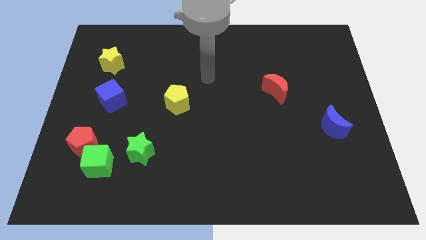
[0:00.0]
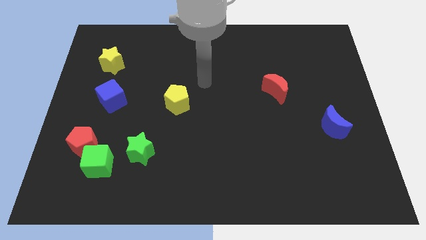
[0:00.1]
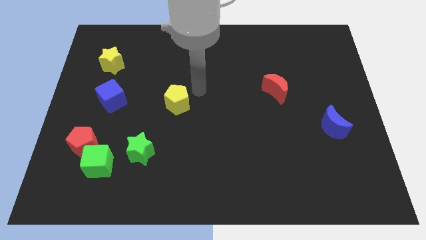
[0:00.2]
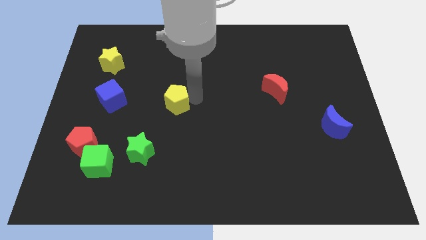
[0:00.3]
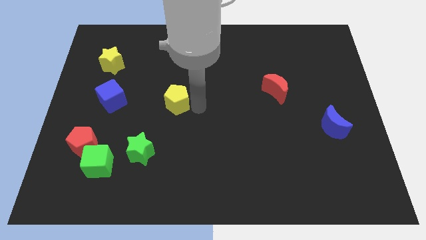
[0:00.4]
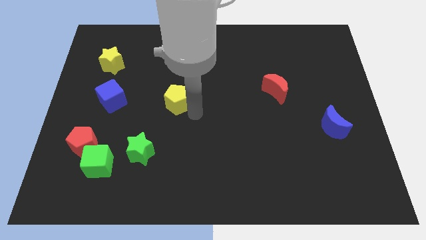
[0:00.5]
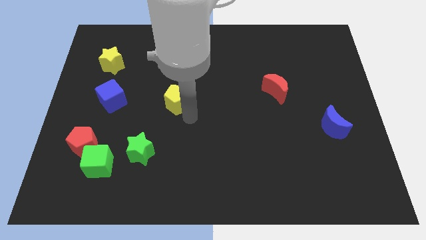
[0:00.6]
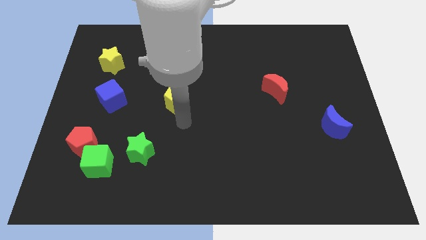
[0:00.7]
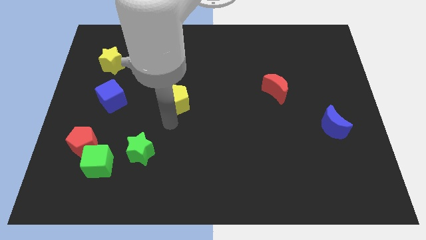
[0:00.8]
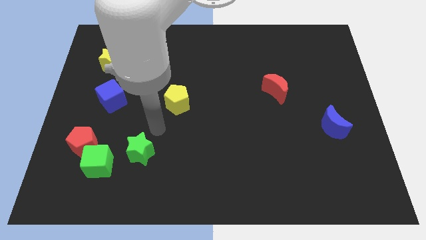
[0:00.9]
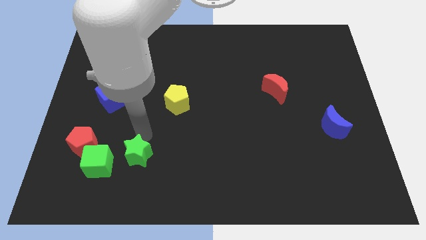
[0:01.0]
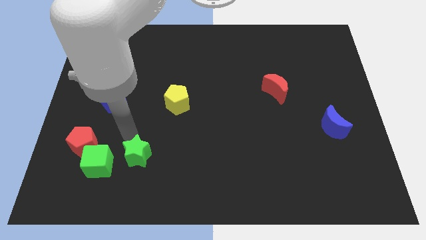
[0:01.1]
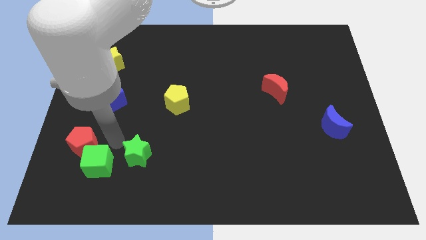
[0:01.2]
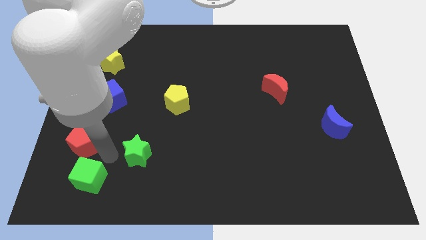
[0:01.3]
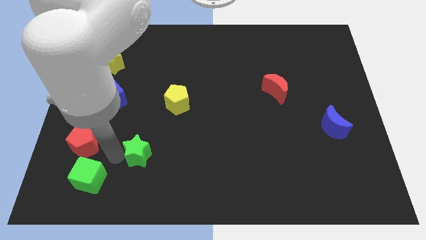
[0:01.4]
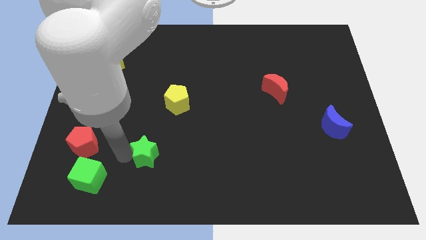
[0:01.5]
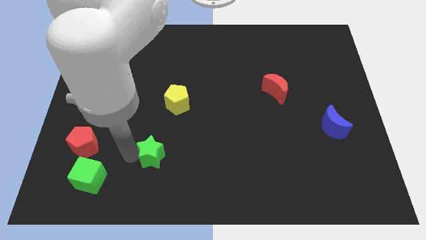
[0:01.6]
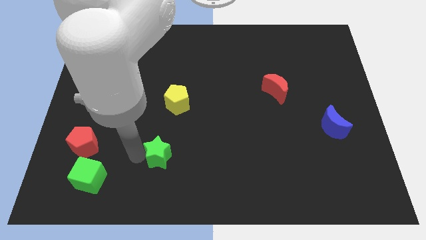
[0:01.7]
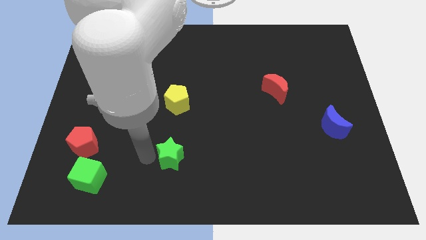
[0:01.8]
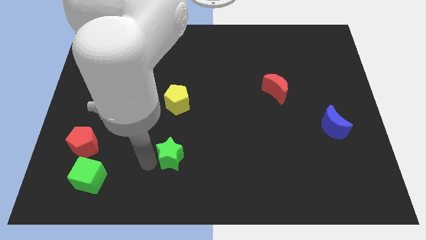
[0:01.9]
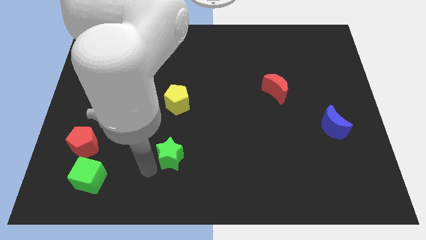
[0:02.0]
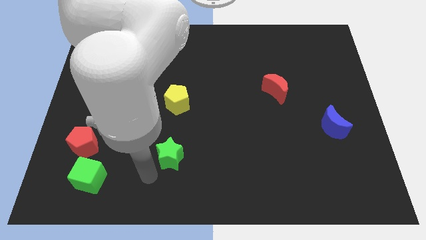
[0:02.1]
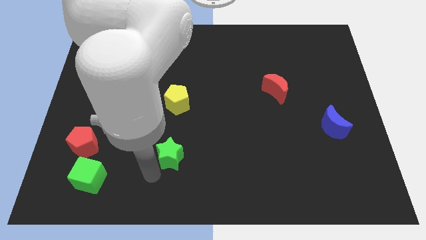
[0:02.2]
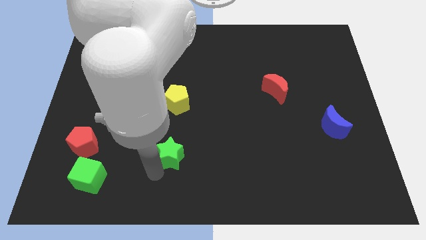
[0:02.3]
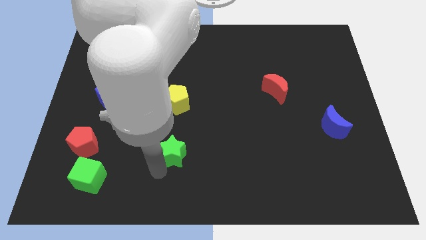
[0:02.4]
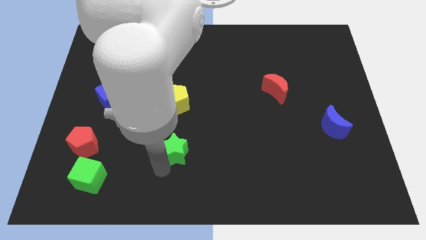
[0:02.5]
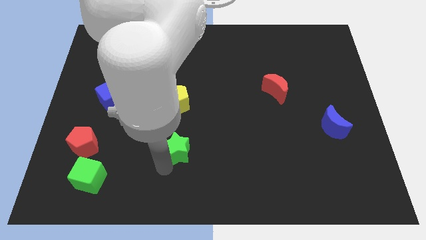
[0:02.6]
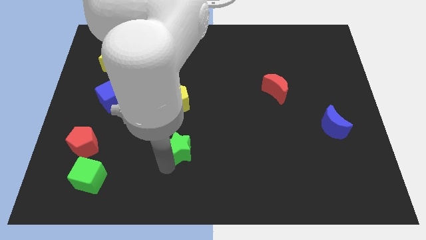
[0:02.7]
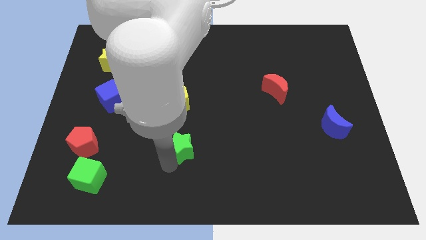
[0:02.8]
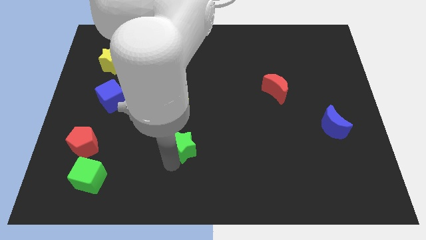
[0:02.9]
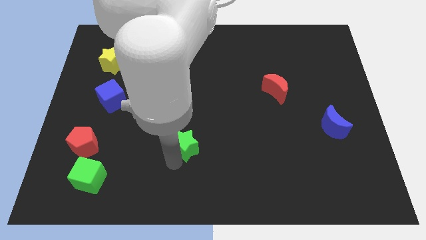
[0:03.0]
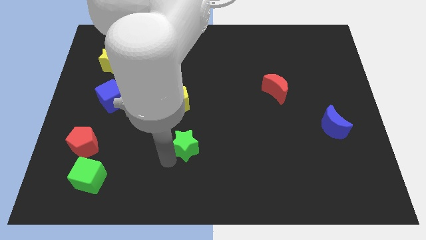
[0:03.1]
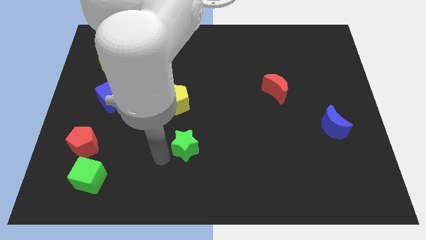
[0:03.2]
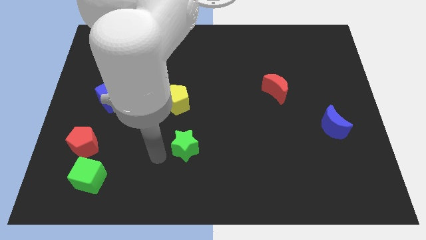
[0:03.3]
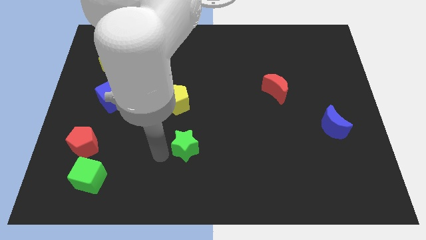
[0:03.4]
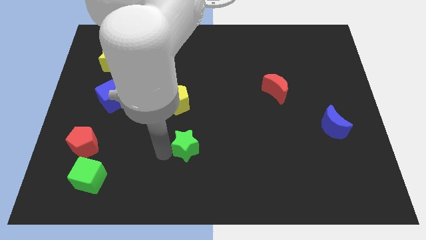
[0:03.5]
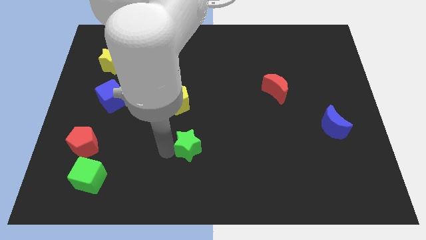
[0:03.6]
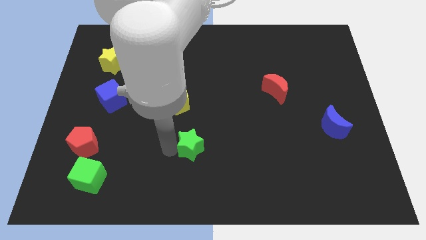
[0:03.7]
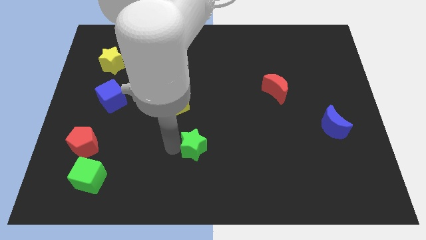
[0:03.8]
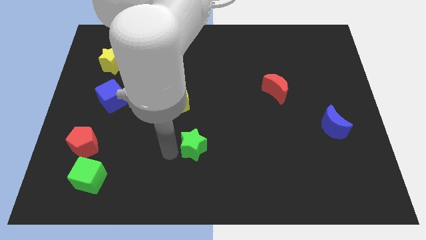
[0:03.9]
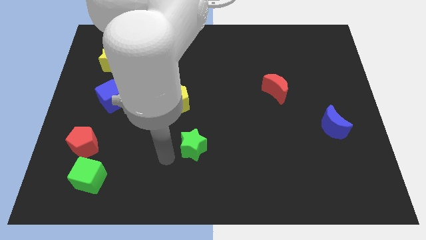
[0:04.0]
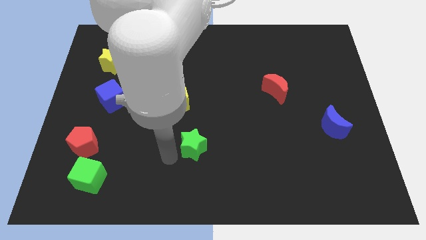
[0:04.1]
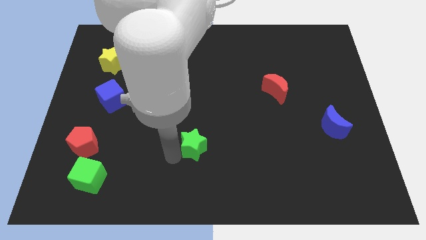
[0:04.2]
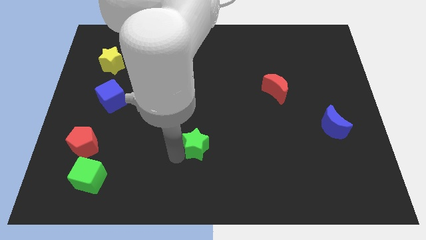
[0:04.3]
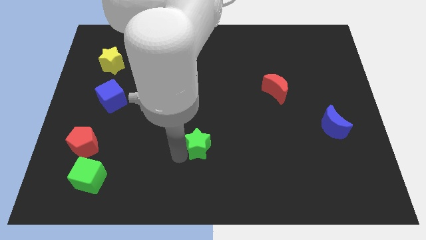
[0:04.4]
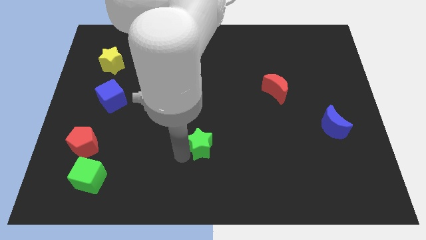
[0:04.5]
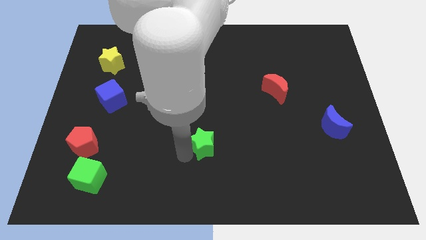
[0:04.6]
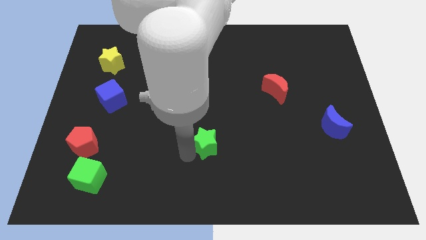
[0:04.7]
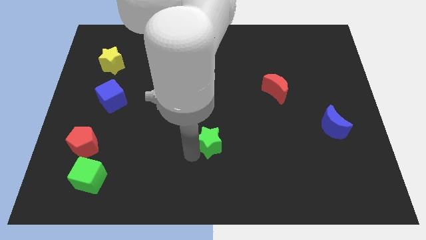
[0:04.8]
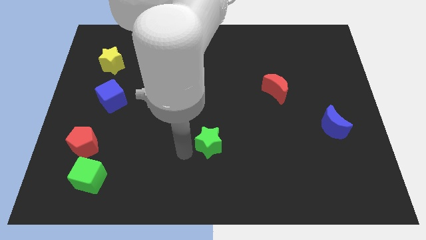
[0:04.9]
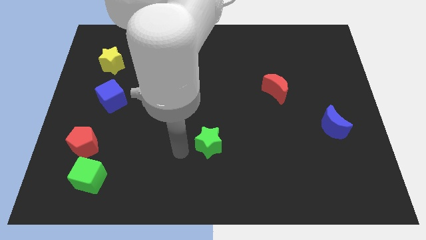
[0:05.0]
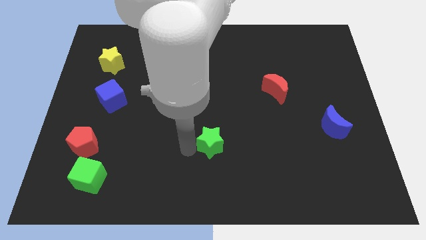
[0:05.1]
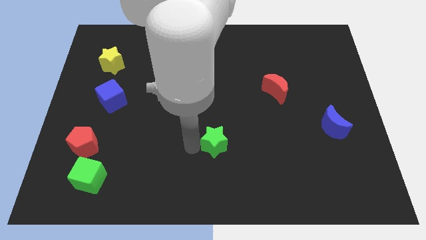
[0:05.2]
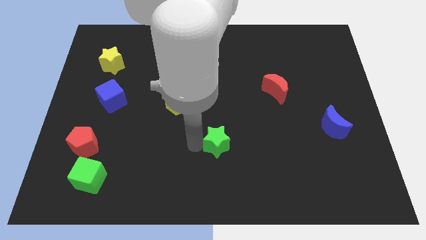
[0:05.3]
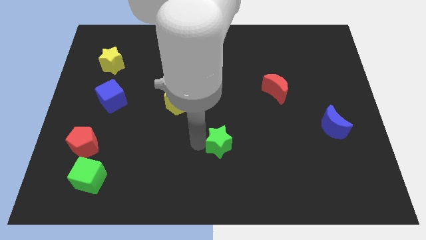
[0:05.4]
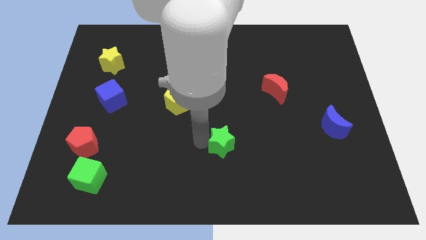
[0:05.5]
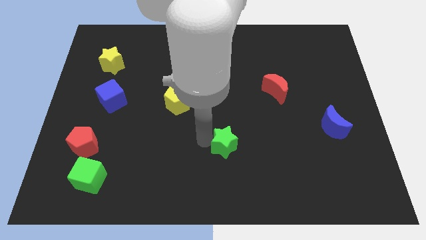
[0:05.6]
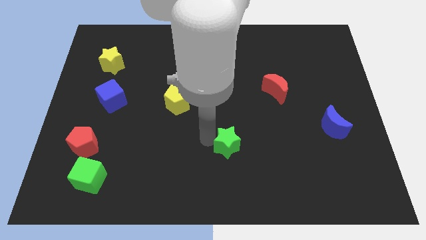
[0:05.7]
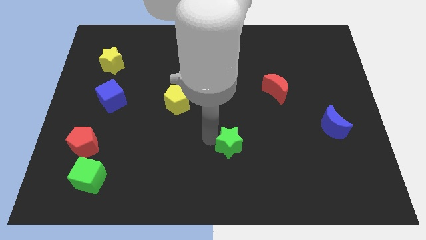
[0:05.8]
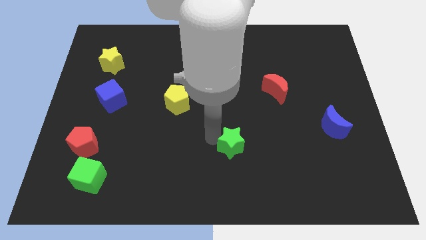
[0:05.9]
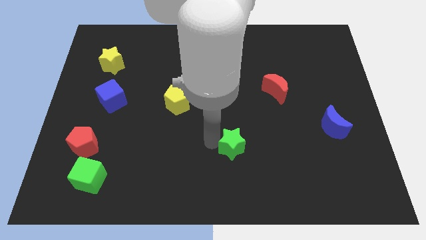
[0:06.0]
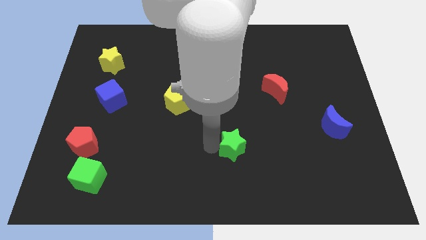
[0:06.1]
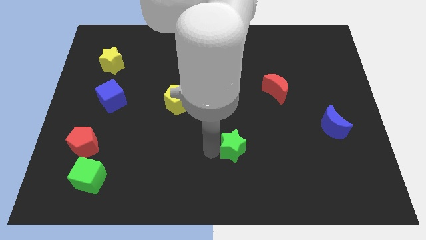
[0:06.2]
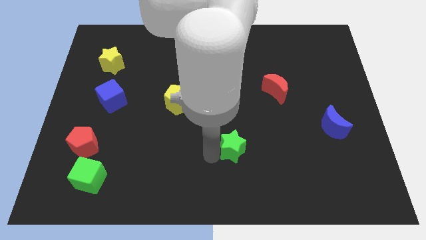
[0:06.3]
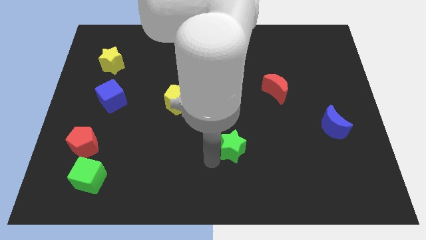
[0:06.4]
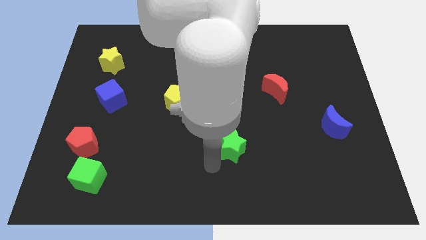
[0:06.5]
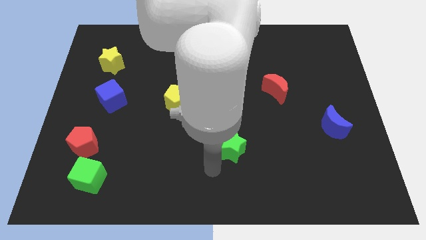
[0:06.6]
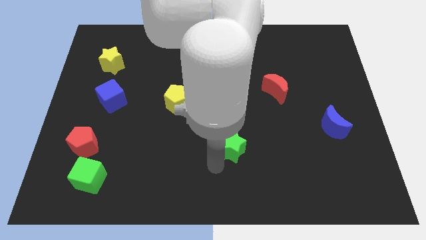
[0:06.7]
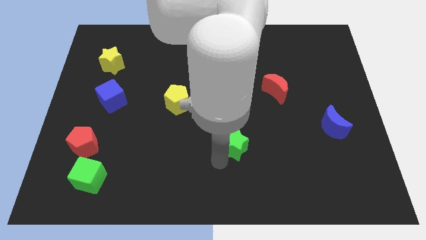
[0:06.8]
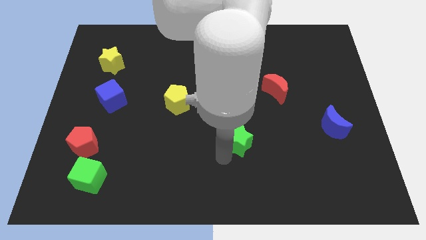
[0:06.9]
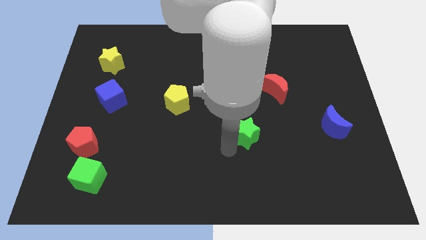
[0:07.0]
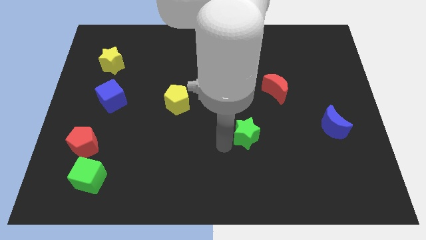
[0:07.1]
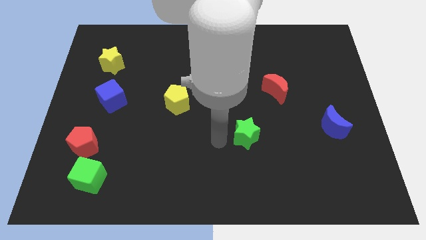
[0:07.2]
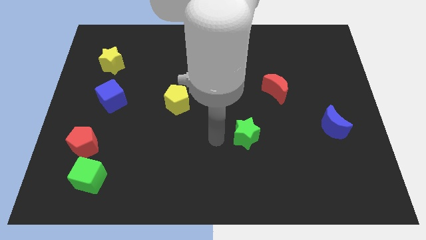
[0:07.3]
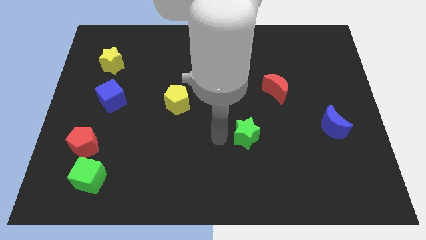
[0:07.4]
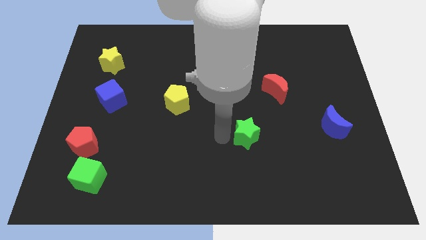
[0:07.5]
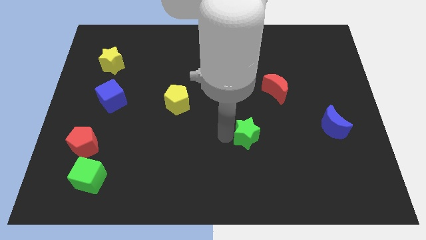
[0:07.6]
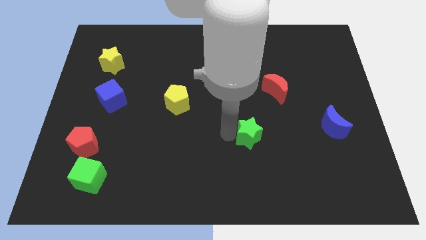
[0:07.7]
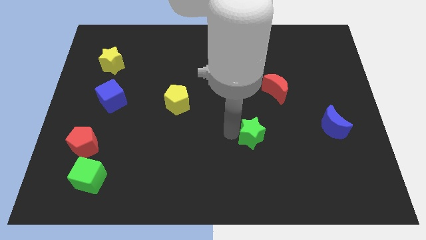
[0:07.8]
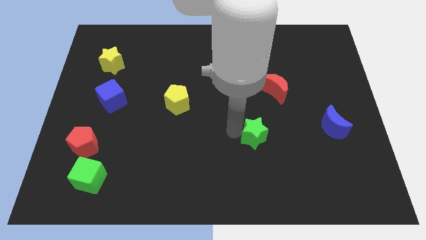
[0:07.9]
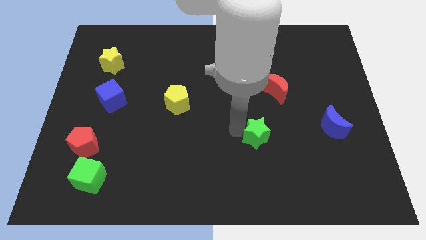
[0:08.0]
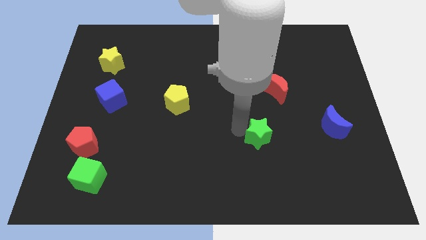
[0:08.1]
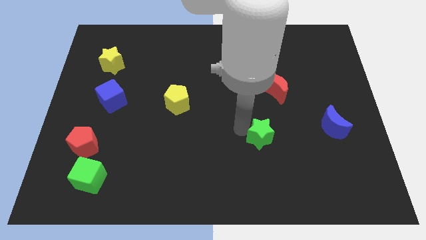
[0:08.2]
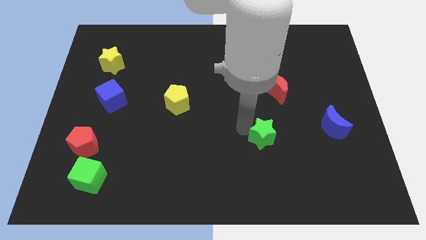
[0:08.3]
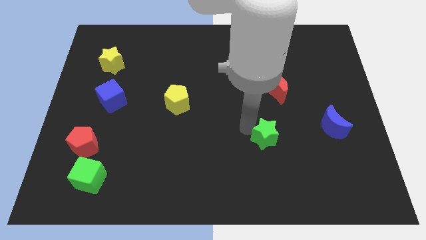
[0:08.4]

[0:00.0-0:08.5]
move the green star to the left side of the blue moon
